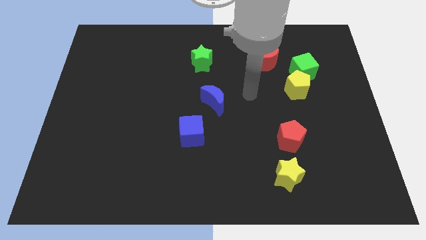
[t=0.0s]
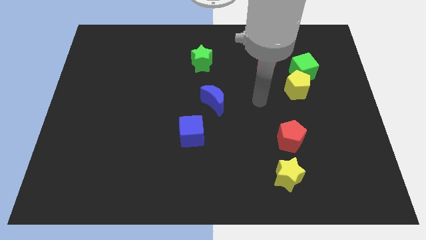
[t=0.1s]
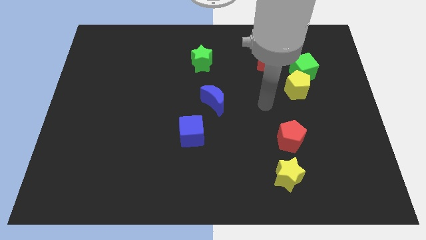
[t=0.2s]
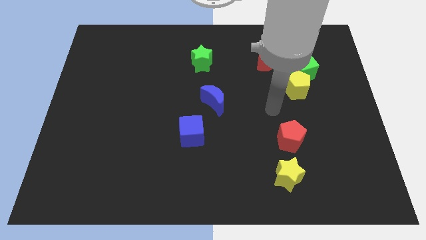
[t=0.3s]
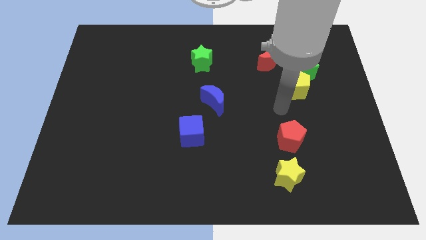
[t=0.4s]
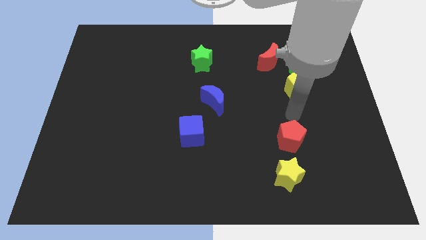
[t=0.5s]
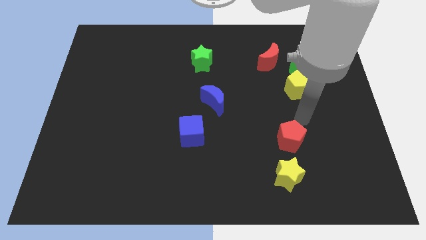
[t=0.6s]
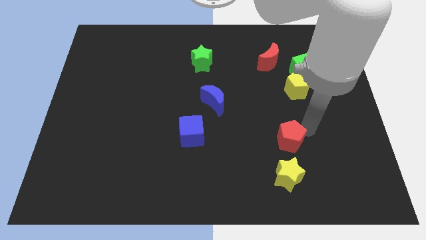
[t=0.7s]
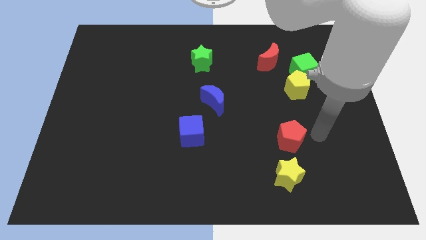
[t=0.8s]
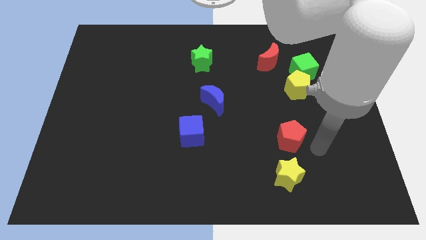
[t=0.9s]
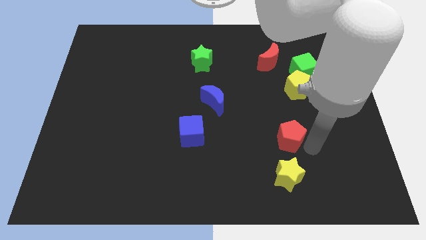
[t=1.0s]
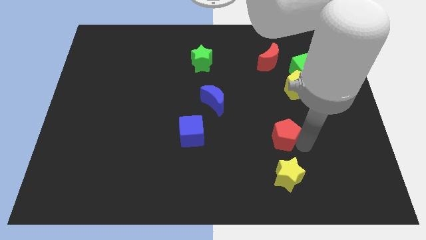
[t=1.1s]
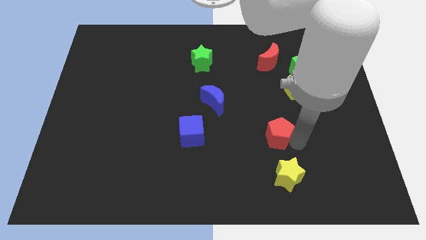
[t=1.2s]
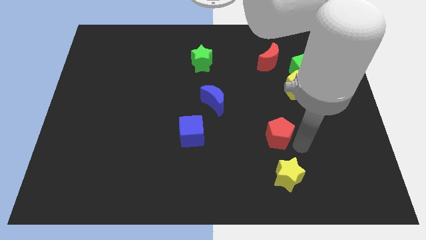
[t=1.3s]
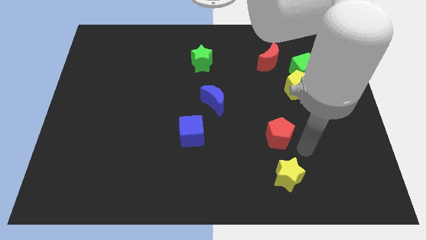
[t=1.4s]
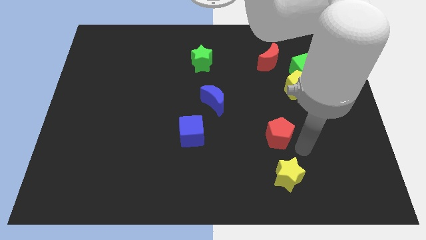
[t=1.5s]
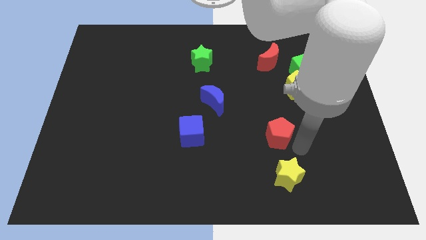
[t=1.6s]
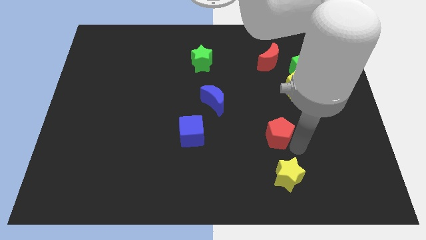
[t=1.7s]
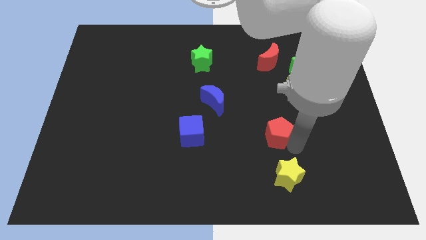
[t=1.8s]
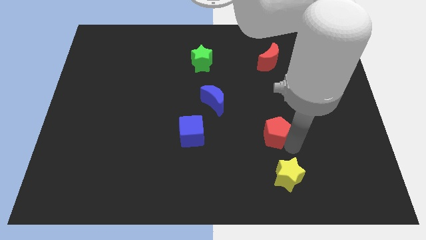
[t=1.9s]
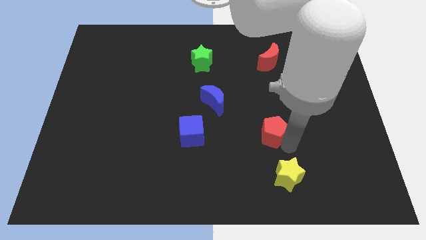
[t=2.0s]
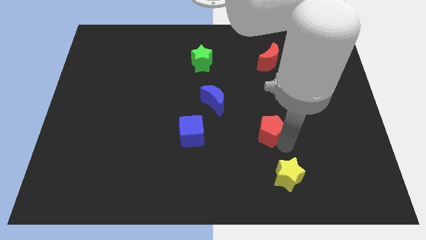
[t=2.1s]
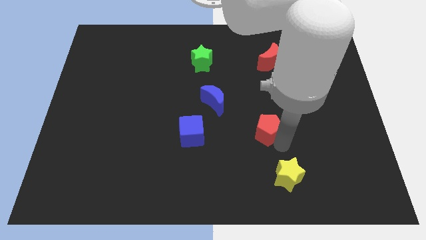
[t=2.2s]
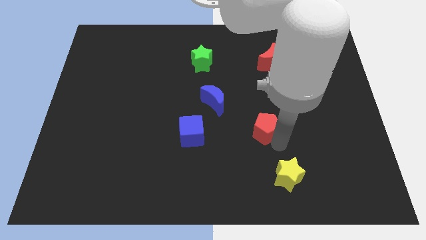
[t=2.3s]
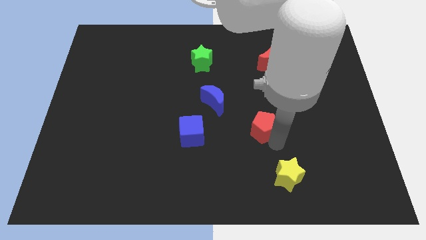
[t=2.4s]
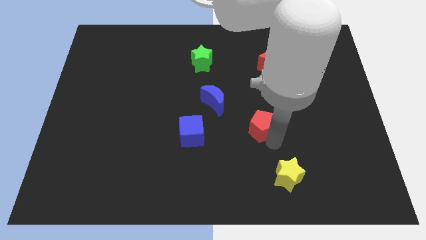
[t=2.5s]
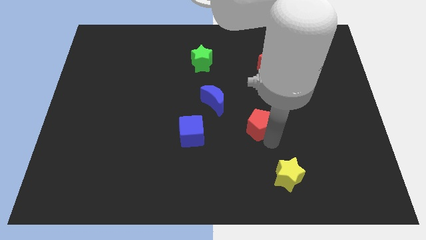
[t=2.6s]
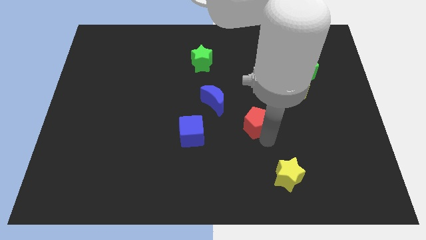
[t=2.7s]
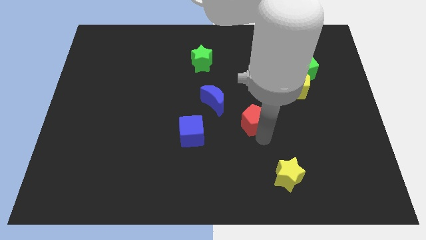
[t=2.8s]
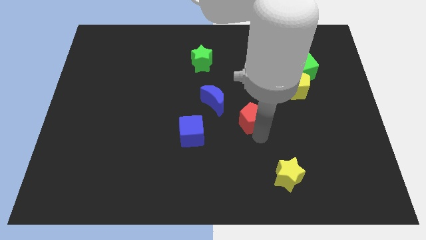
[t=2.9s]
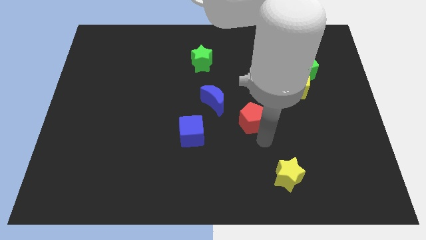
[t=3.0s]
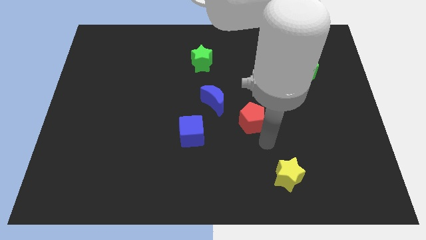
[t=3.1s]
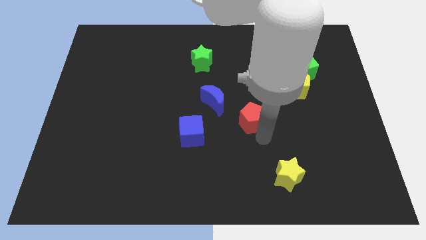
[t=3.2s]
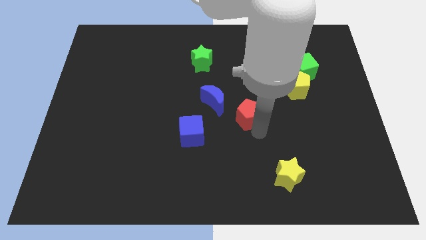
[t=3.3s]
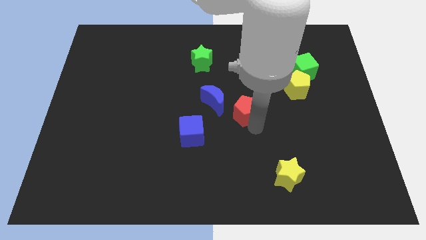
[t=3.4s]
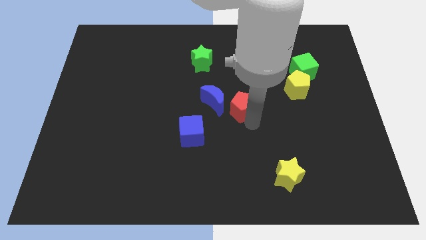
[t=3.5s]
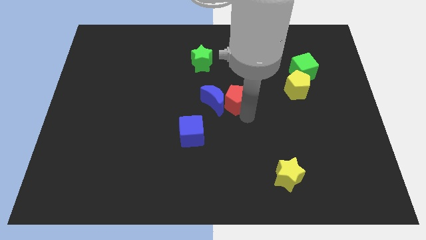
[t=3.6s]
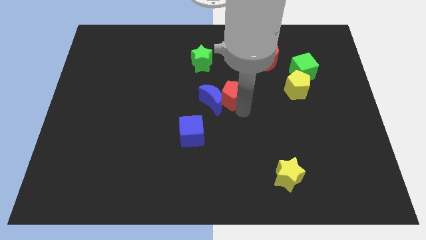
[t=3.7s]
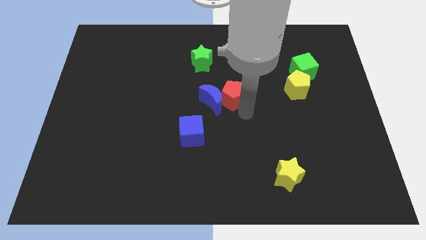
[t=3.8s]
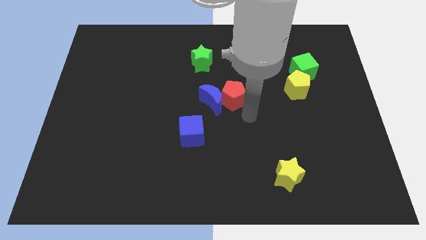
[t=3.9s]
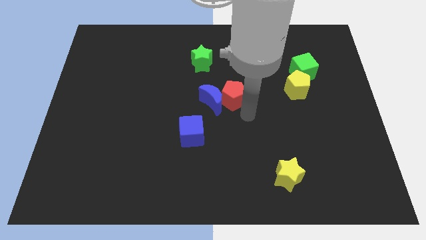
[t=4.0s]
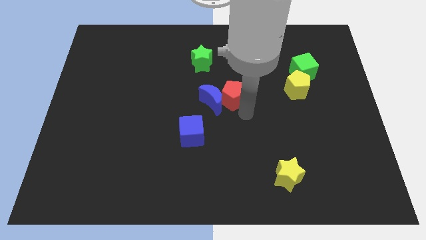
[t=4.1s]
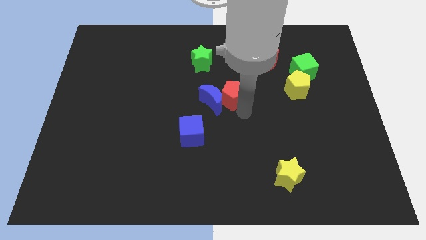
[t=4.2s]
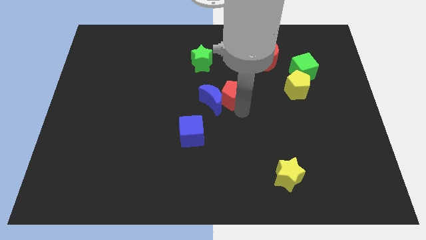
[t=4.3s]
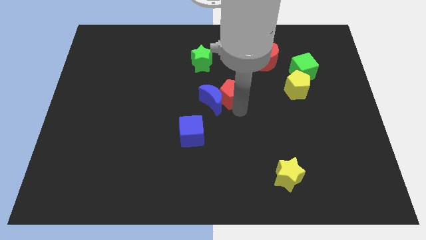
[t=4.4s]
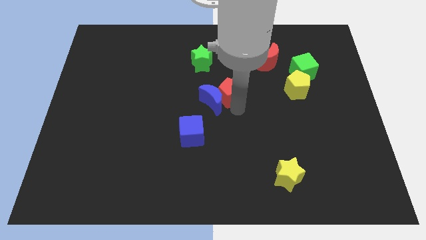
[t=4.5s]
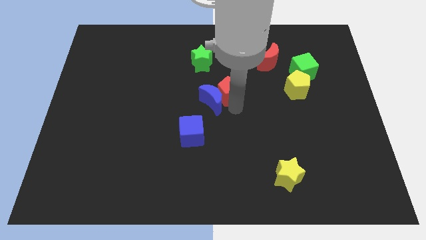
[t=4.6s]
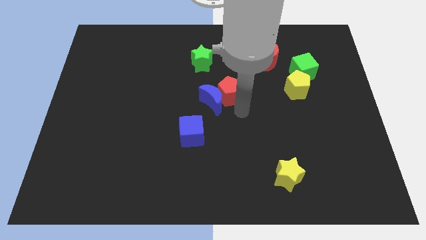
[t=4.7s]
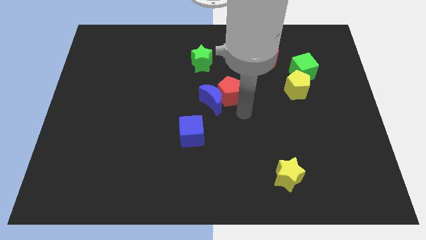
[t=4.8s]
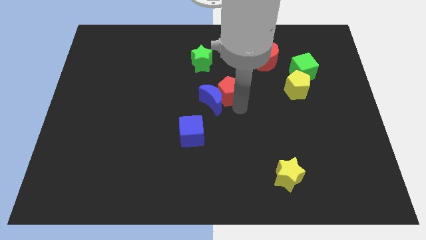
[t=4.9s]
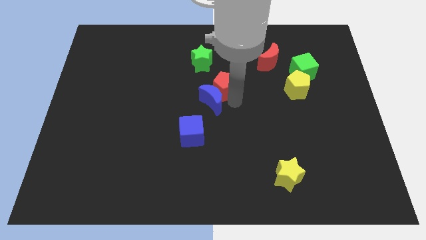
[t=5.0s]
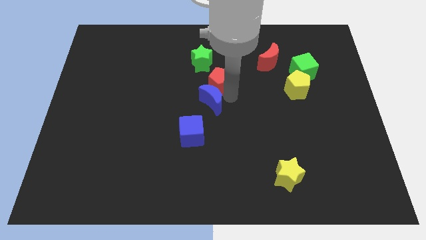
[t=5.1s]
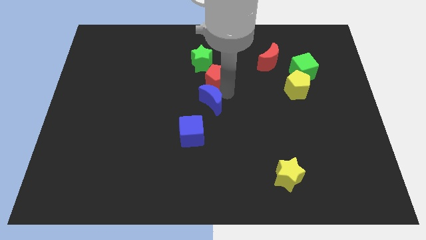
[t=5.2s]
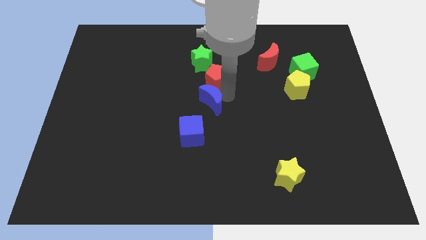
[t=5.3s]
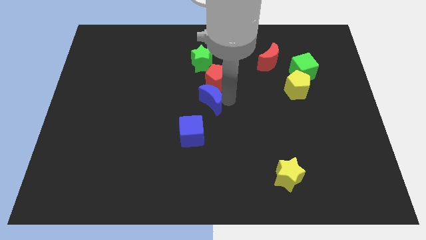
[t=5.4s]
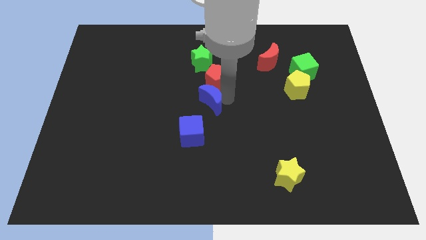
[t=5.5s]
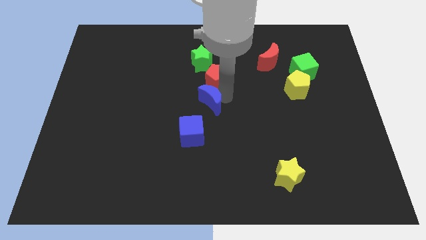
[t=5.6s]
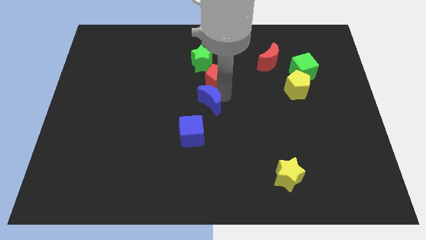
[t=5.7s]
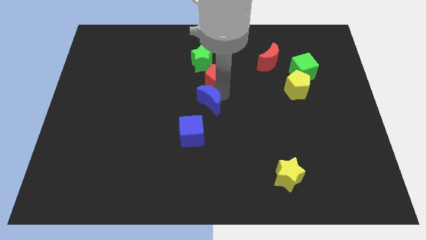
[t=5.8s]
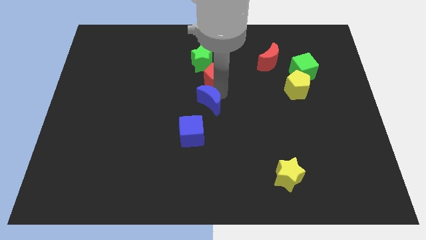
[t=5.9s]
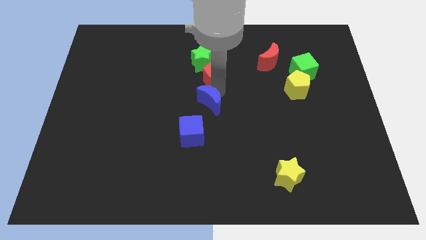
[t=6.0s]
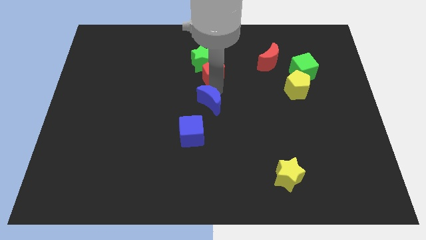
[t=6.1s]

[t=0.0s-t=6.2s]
put the red pentagon to the green star

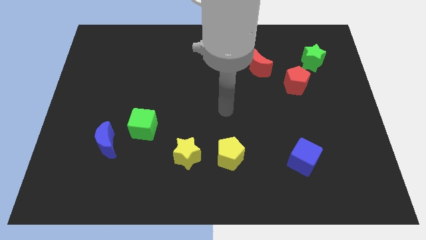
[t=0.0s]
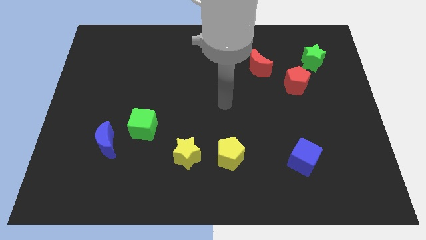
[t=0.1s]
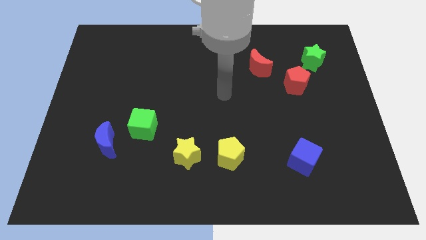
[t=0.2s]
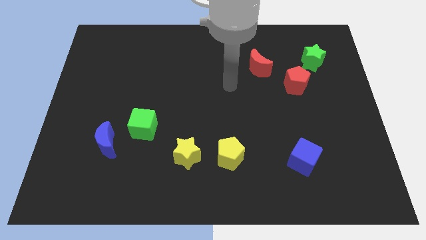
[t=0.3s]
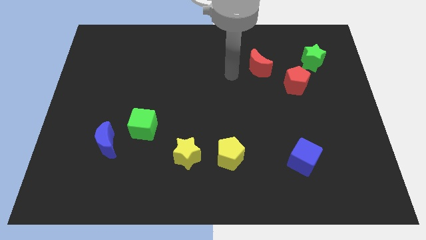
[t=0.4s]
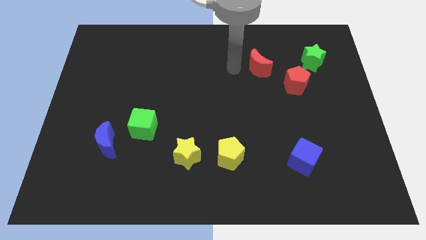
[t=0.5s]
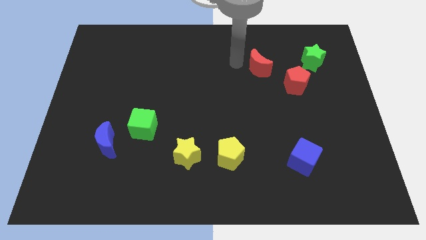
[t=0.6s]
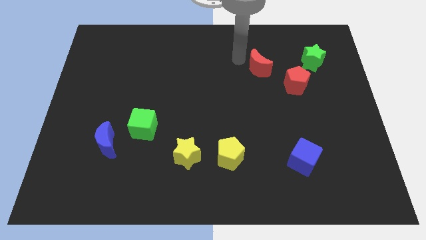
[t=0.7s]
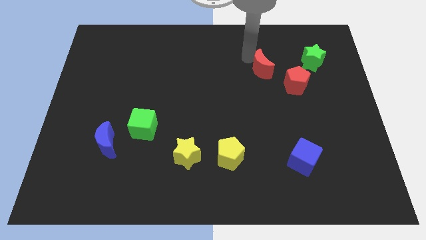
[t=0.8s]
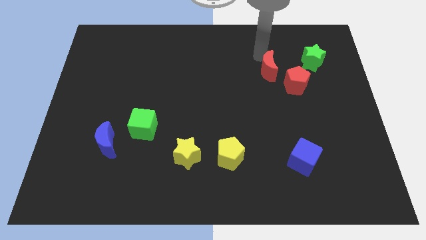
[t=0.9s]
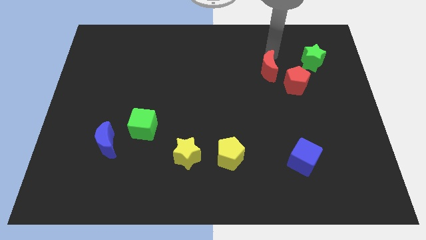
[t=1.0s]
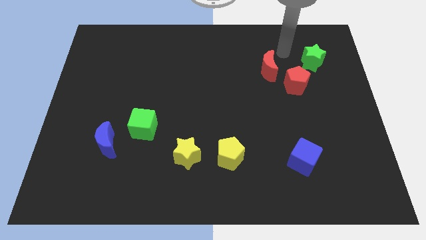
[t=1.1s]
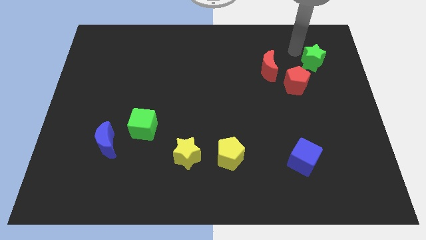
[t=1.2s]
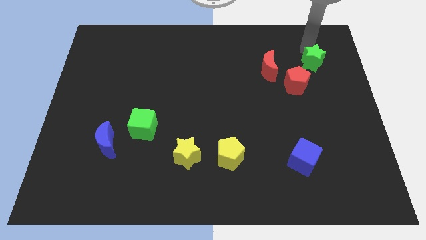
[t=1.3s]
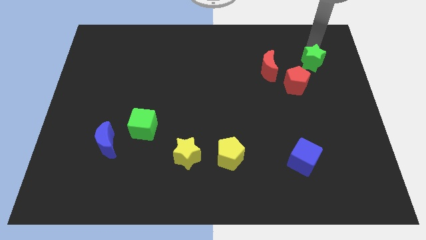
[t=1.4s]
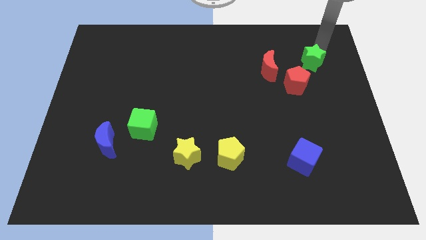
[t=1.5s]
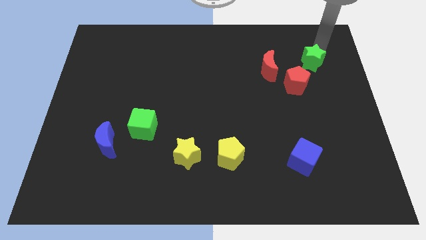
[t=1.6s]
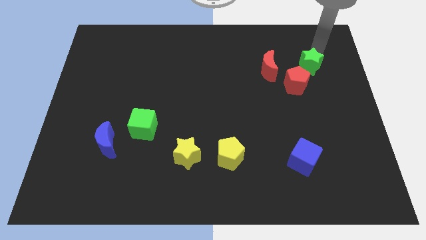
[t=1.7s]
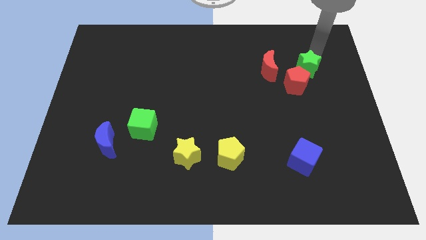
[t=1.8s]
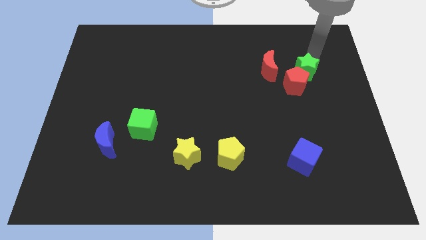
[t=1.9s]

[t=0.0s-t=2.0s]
push the green star to the red pentagon
